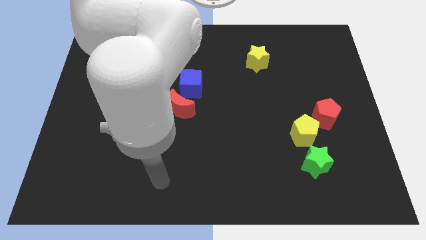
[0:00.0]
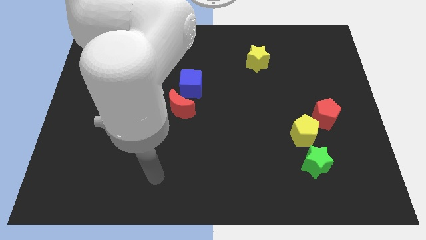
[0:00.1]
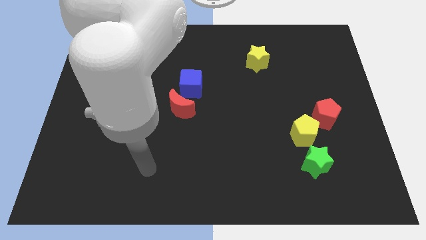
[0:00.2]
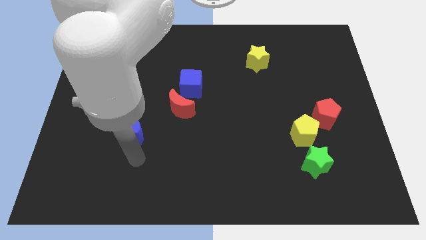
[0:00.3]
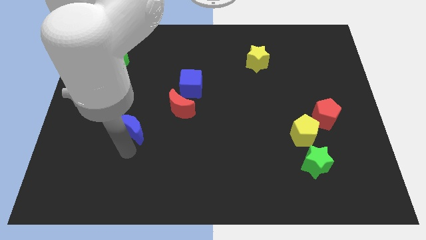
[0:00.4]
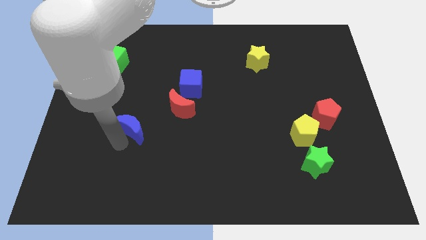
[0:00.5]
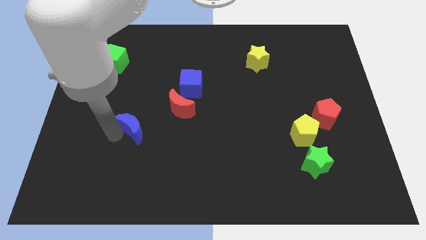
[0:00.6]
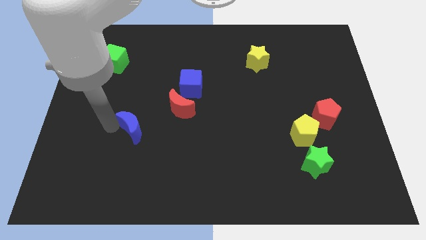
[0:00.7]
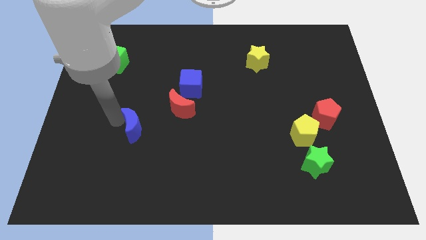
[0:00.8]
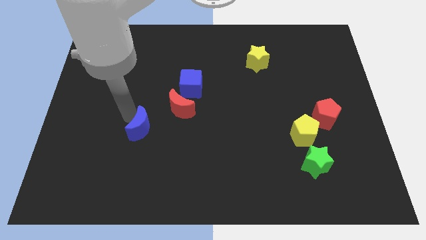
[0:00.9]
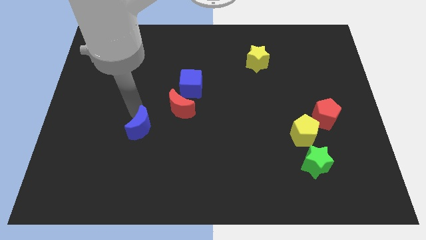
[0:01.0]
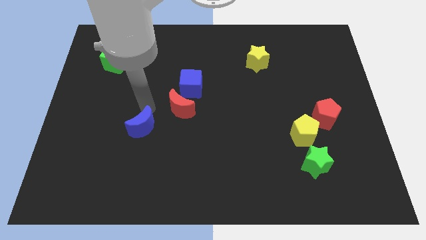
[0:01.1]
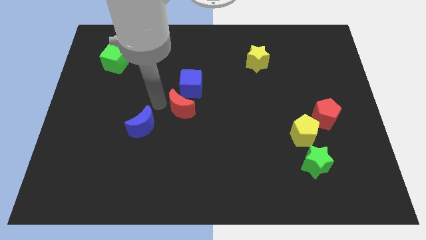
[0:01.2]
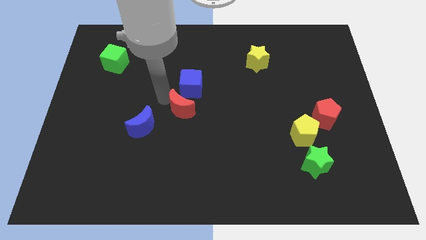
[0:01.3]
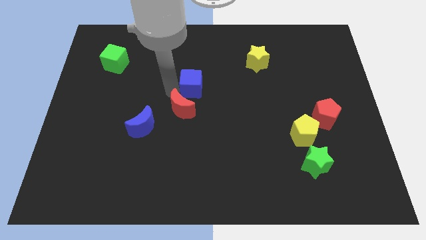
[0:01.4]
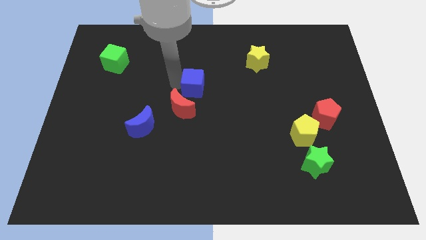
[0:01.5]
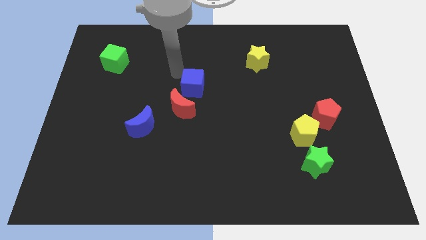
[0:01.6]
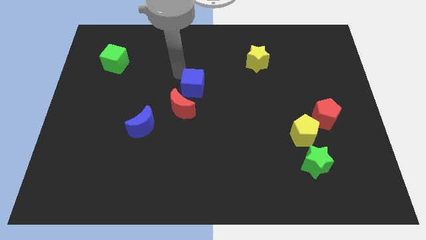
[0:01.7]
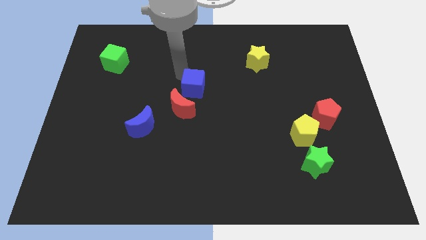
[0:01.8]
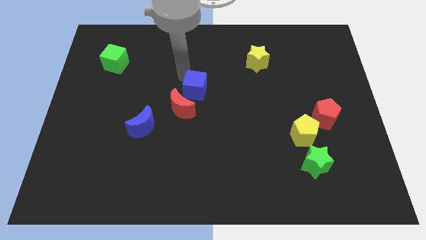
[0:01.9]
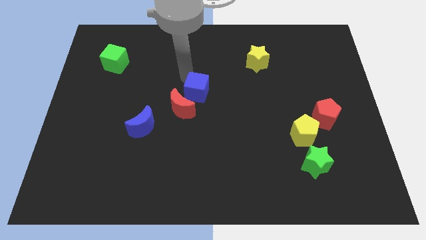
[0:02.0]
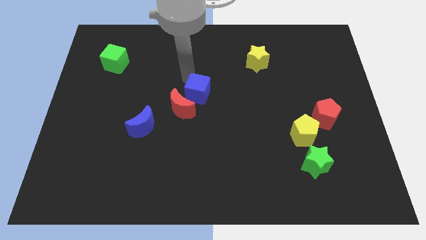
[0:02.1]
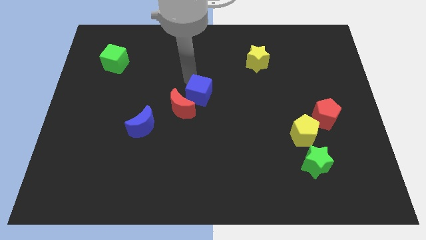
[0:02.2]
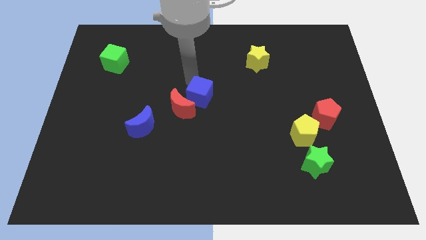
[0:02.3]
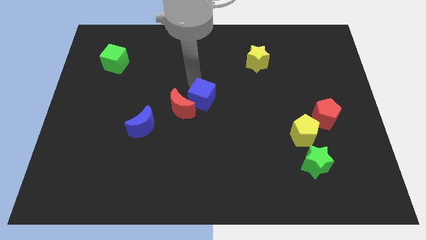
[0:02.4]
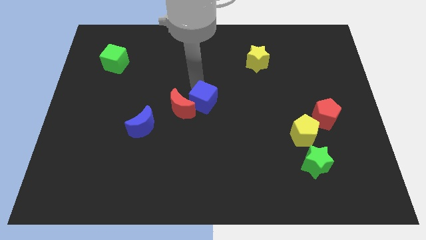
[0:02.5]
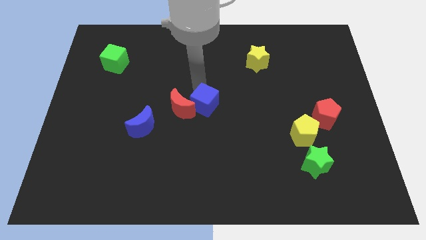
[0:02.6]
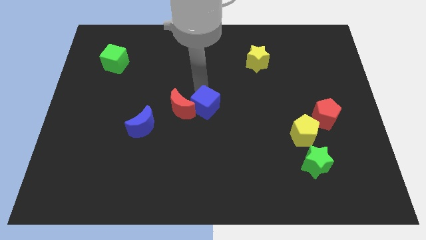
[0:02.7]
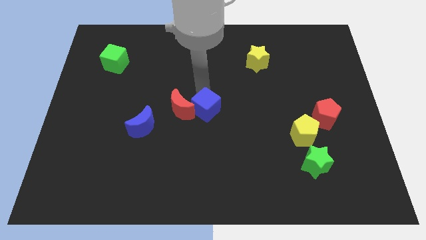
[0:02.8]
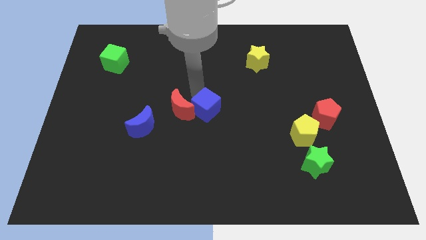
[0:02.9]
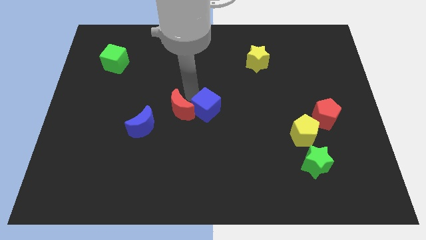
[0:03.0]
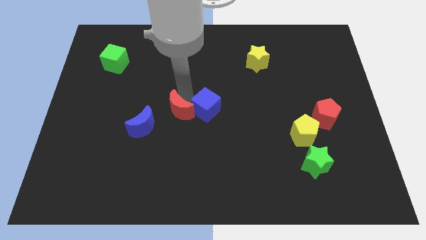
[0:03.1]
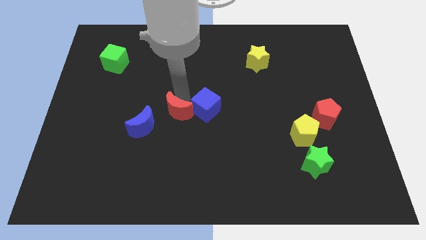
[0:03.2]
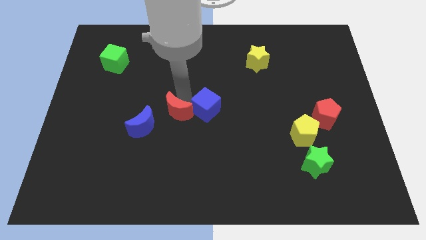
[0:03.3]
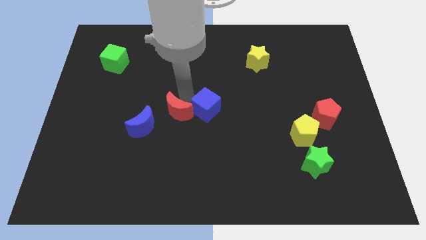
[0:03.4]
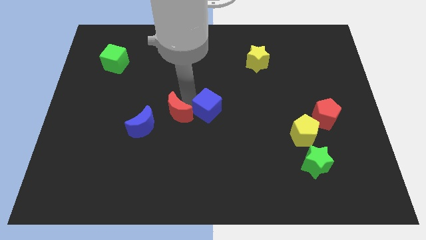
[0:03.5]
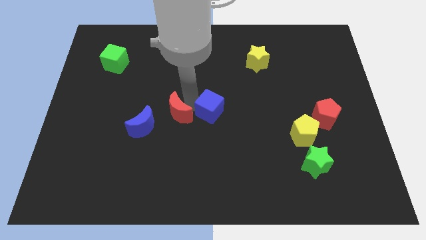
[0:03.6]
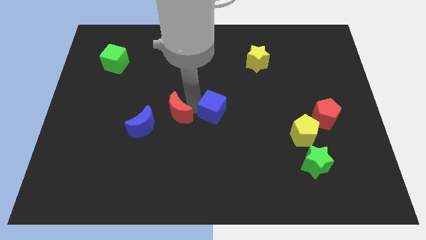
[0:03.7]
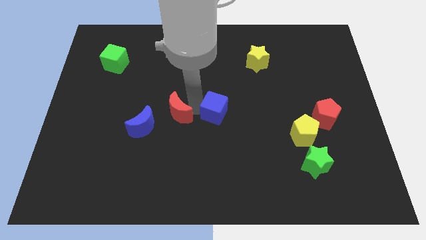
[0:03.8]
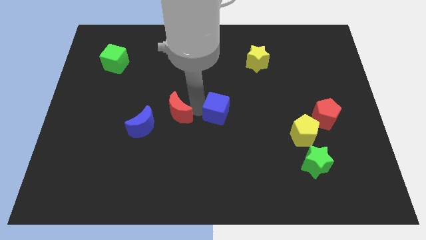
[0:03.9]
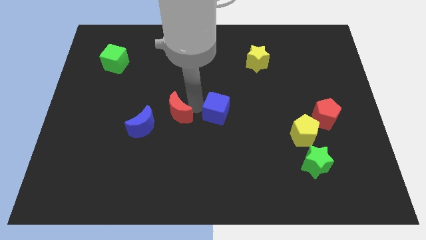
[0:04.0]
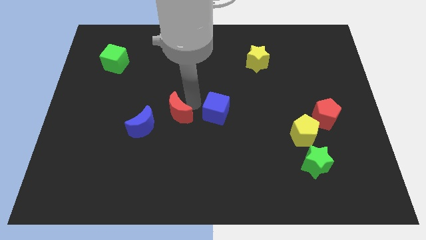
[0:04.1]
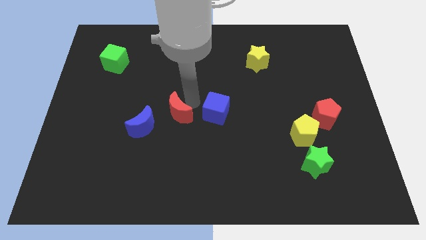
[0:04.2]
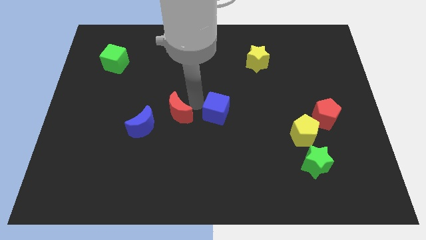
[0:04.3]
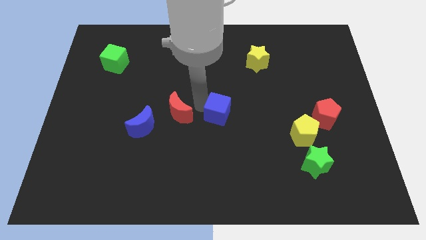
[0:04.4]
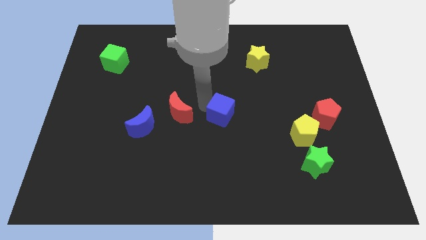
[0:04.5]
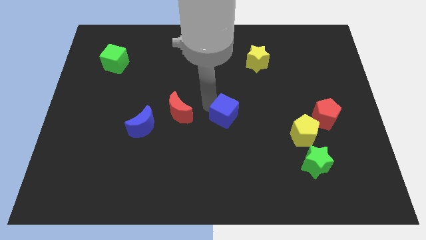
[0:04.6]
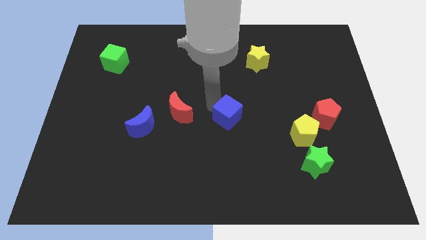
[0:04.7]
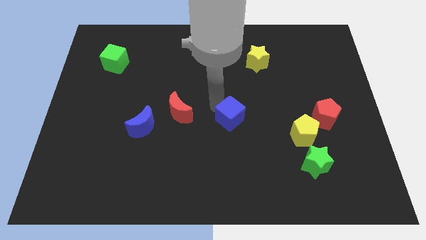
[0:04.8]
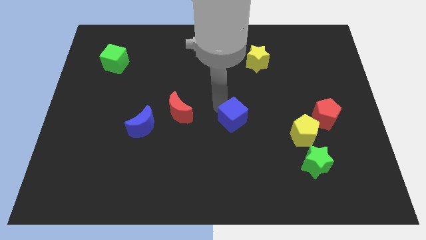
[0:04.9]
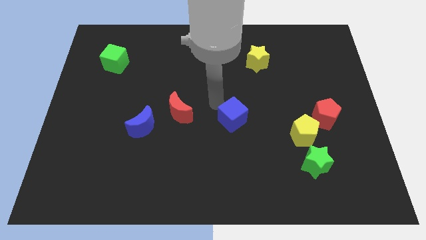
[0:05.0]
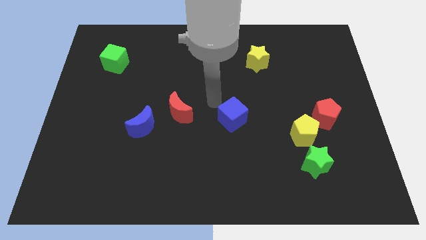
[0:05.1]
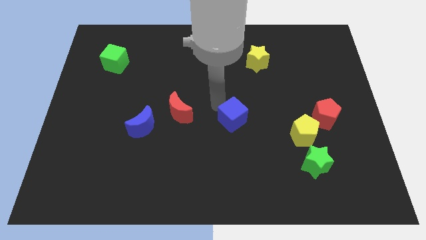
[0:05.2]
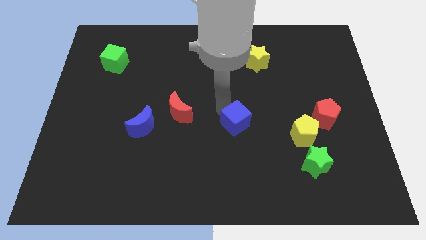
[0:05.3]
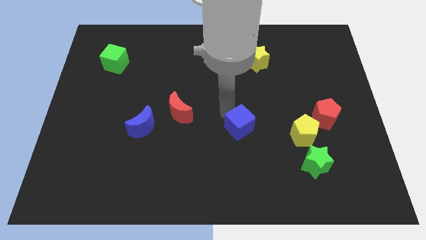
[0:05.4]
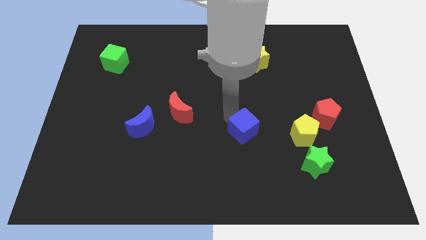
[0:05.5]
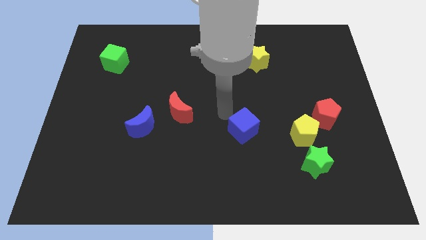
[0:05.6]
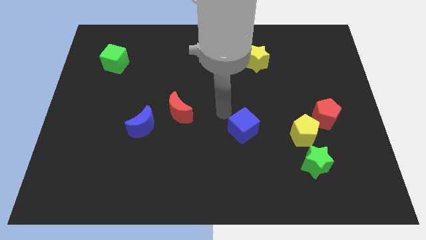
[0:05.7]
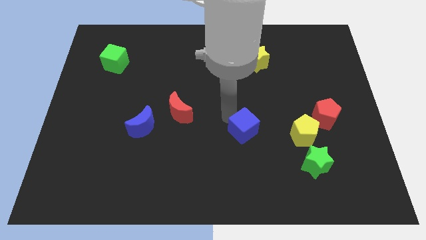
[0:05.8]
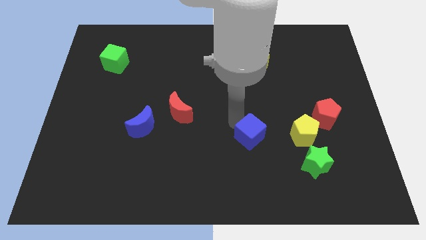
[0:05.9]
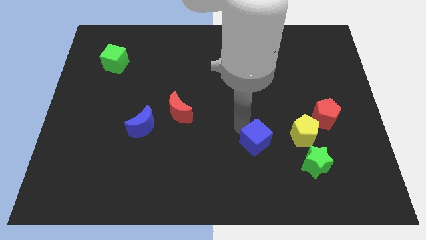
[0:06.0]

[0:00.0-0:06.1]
push the blue cube diagonally downwards and right

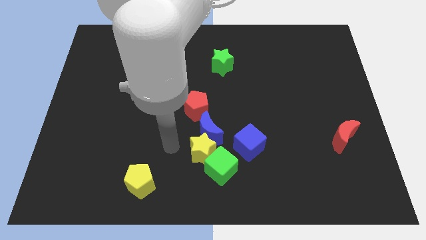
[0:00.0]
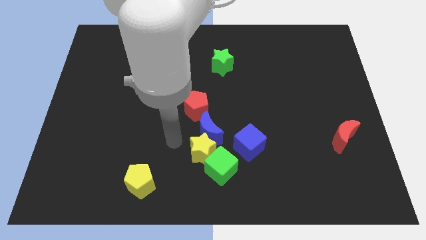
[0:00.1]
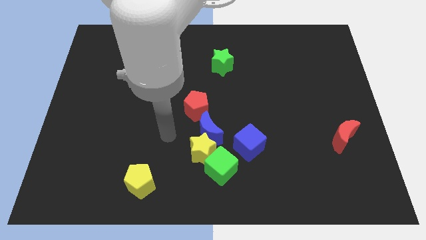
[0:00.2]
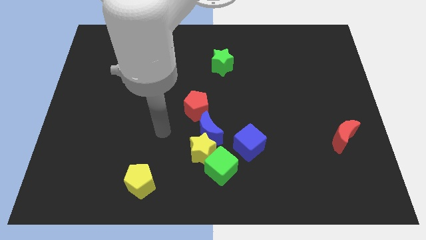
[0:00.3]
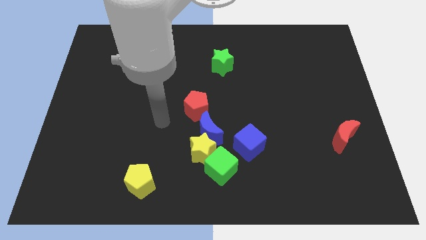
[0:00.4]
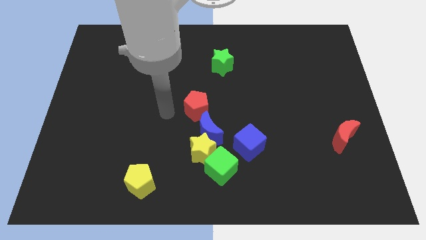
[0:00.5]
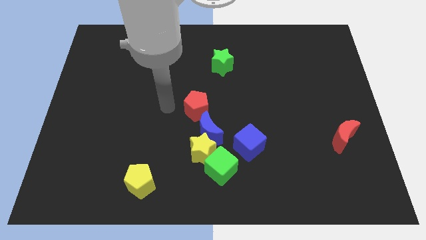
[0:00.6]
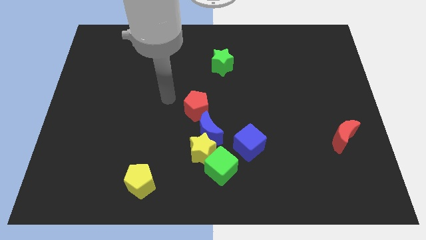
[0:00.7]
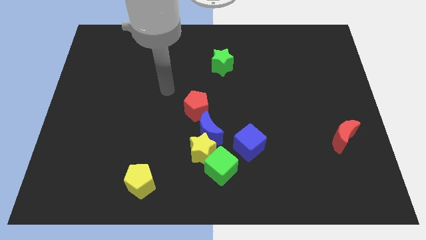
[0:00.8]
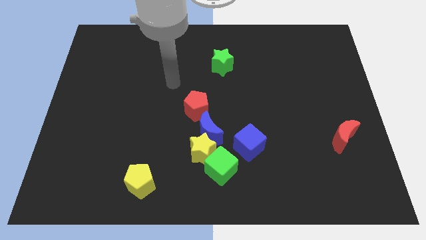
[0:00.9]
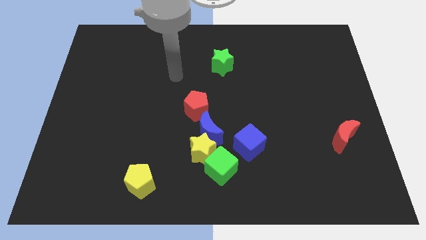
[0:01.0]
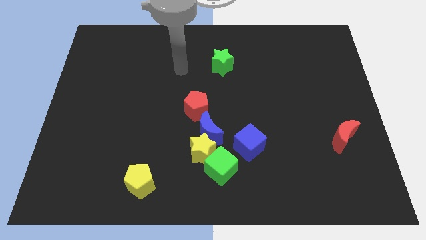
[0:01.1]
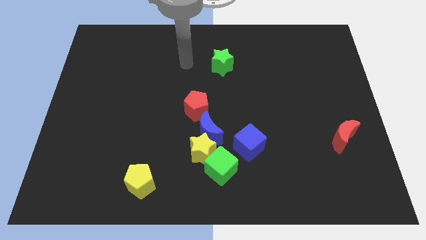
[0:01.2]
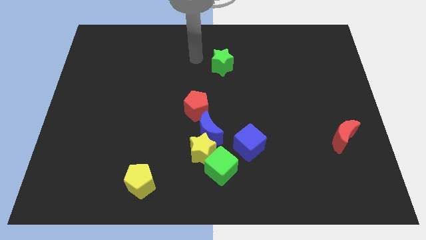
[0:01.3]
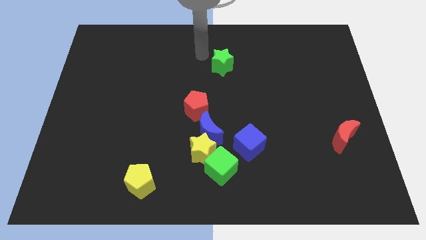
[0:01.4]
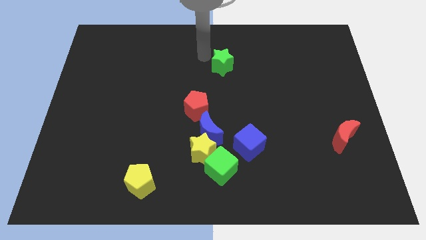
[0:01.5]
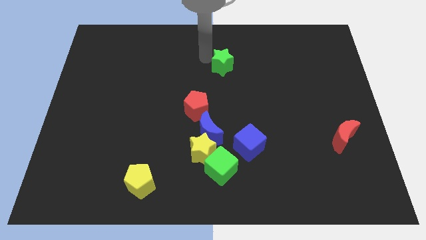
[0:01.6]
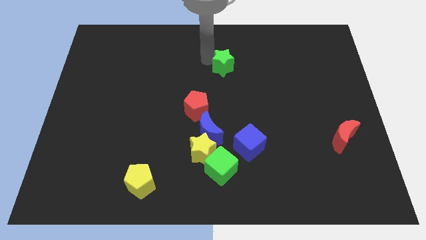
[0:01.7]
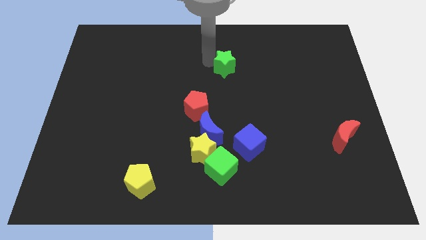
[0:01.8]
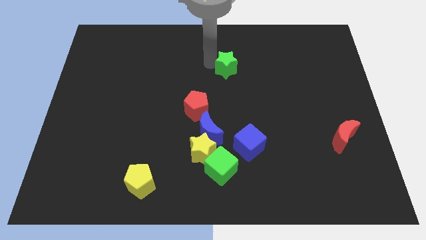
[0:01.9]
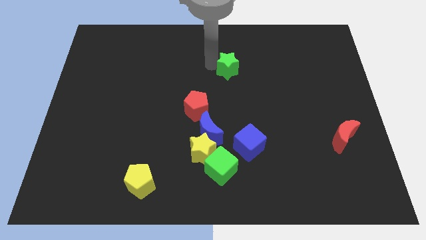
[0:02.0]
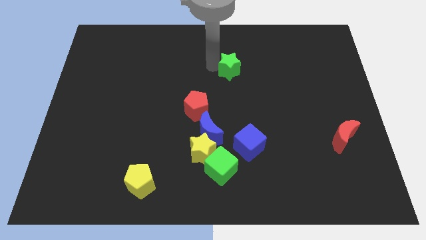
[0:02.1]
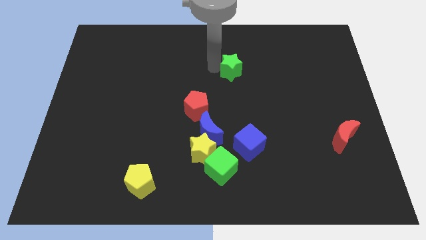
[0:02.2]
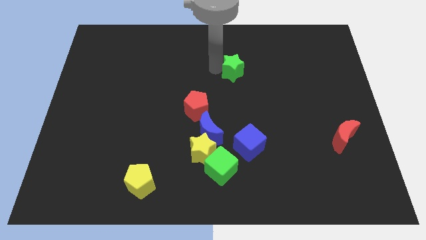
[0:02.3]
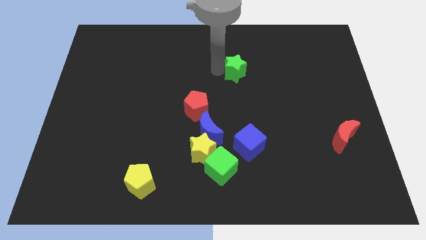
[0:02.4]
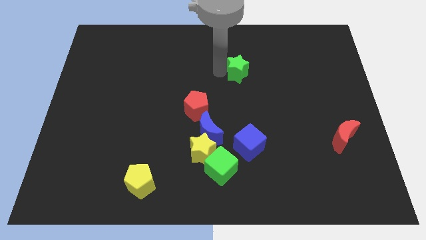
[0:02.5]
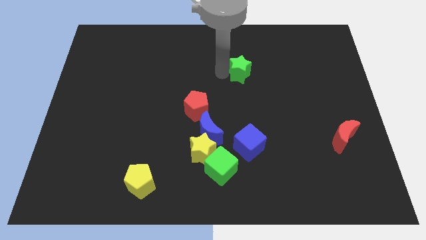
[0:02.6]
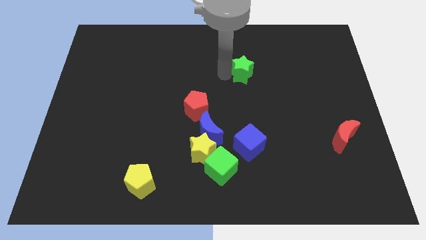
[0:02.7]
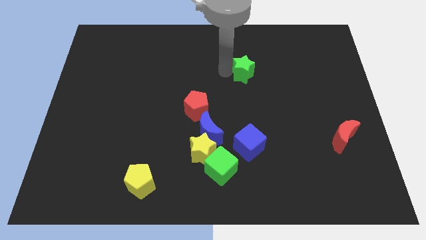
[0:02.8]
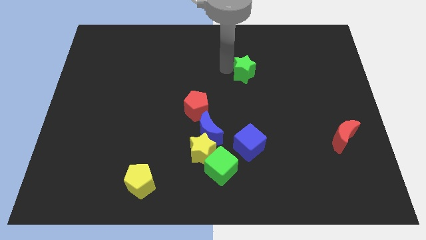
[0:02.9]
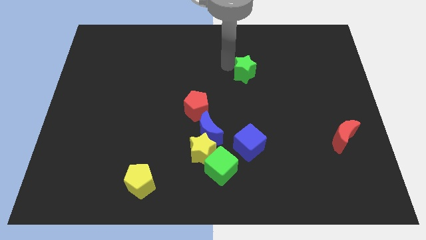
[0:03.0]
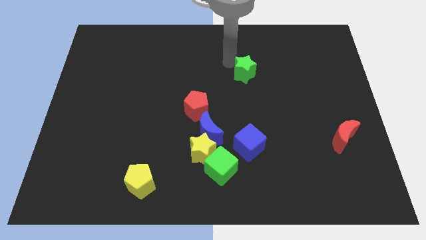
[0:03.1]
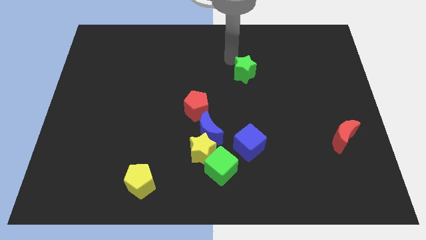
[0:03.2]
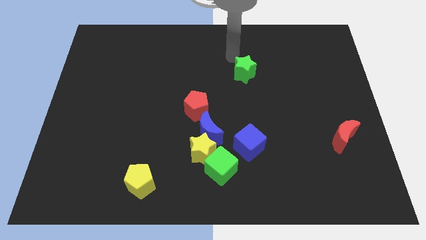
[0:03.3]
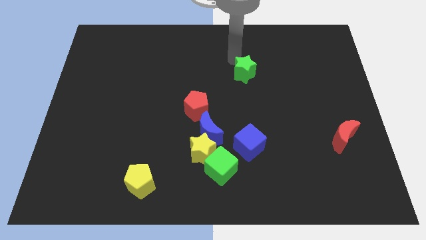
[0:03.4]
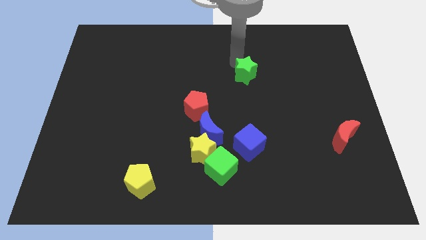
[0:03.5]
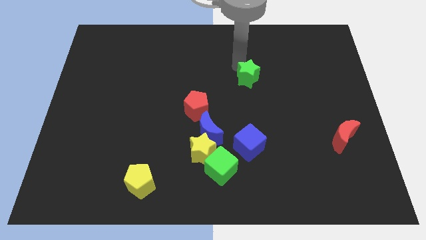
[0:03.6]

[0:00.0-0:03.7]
slide the green star downwards and then to the right a little bit
